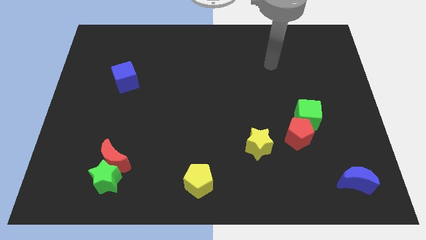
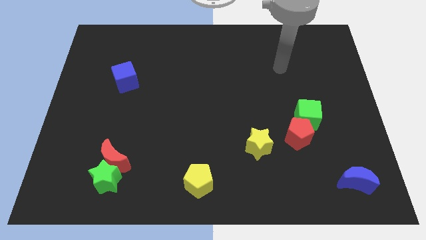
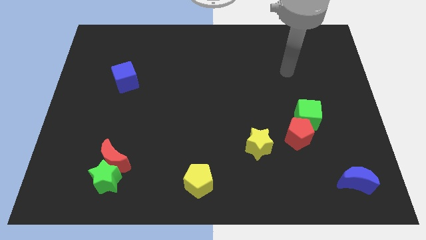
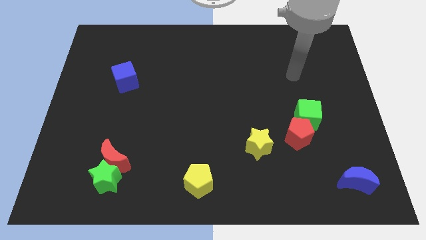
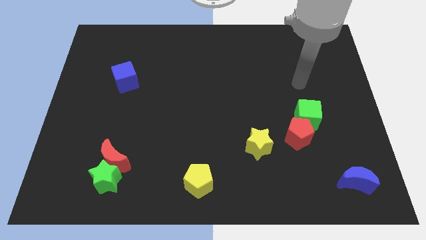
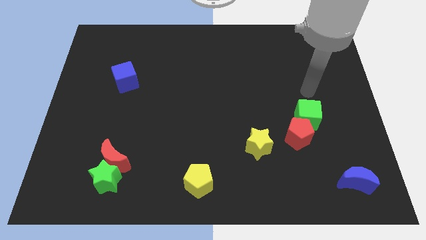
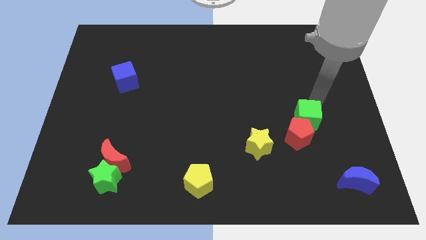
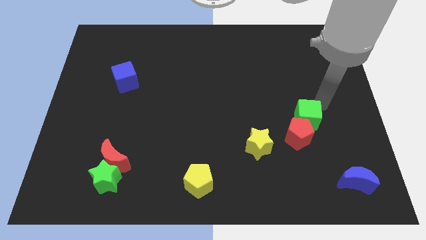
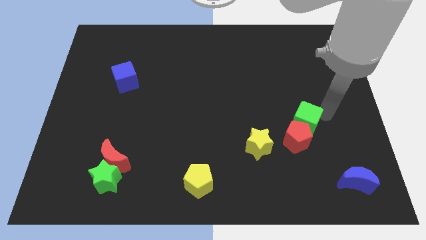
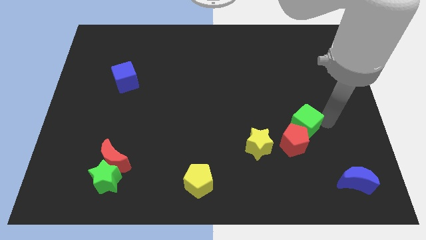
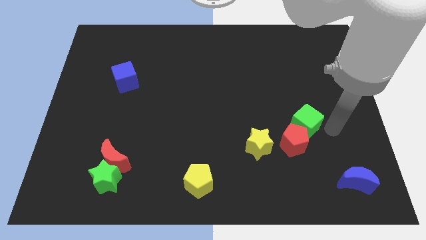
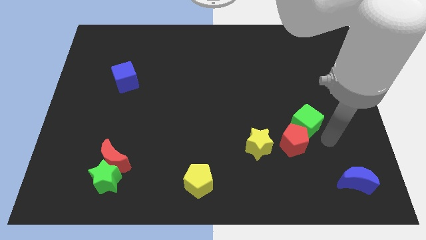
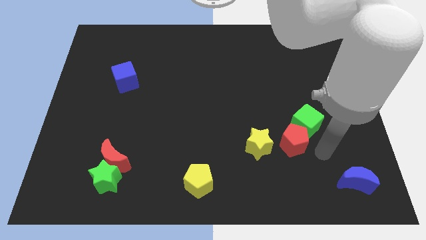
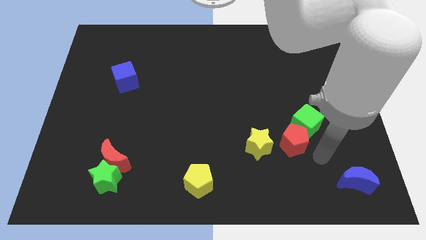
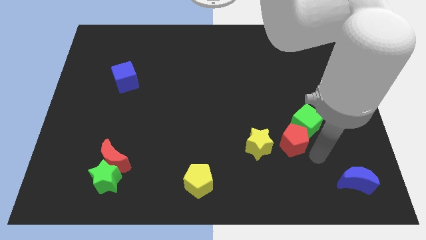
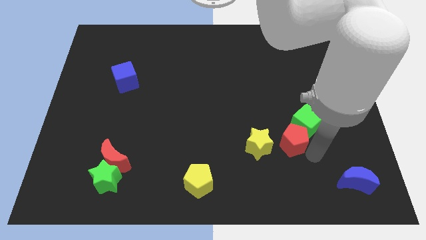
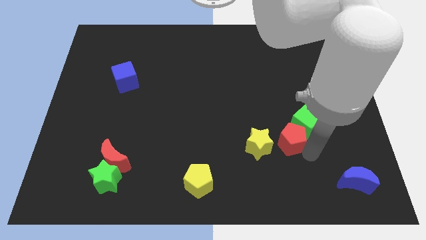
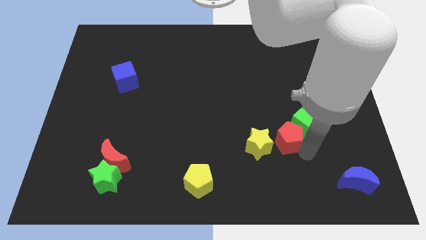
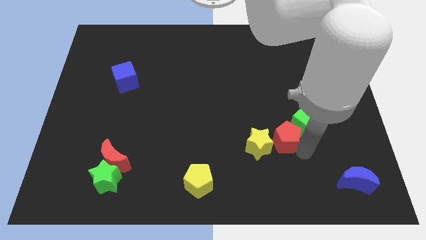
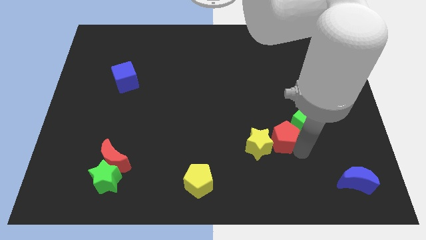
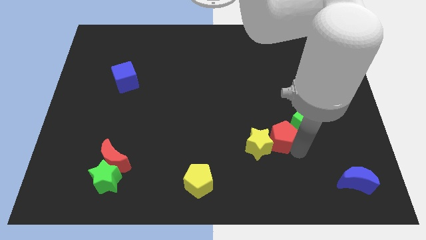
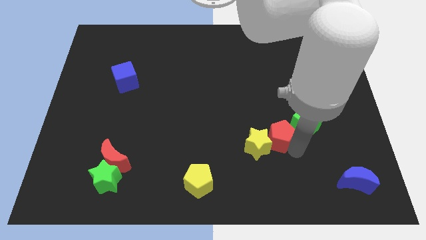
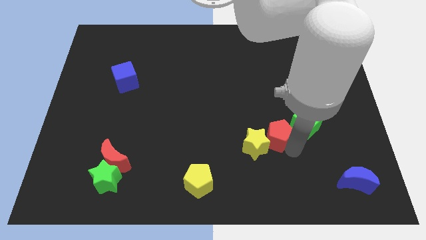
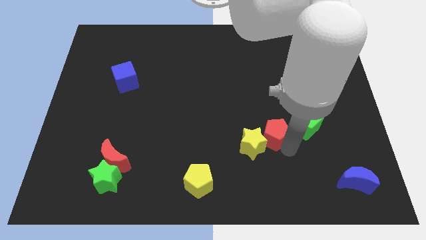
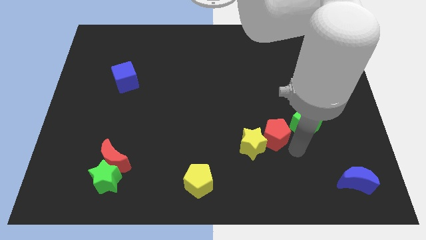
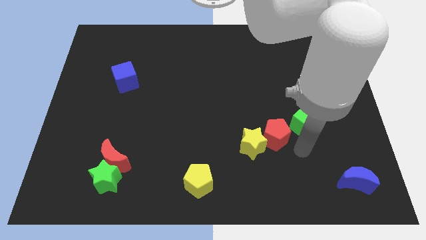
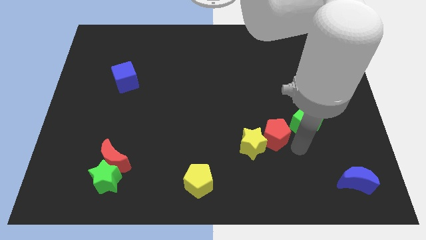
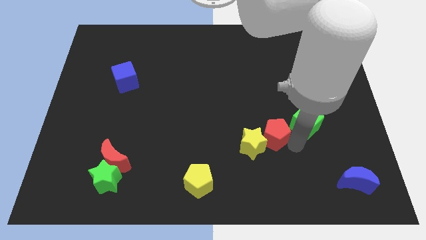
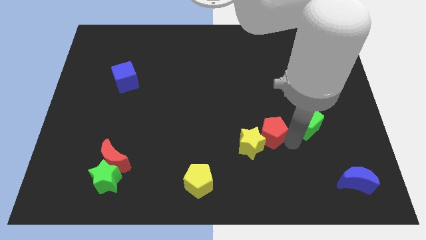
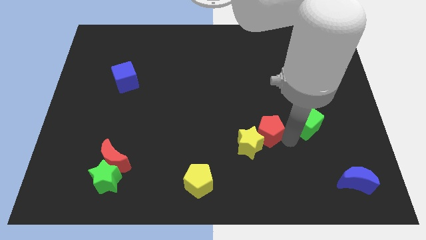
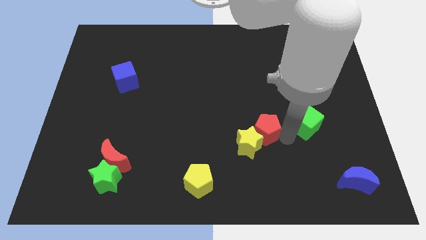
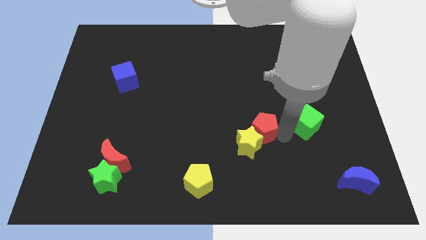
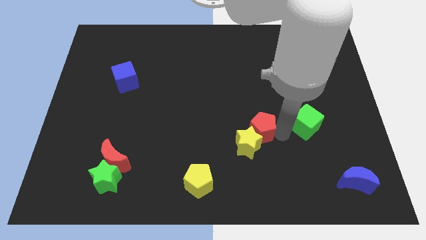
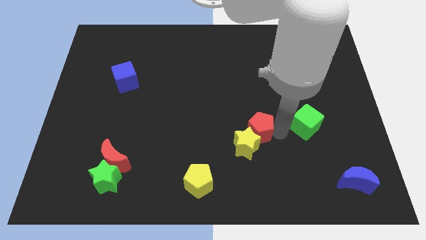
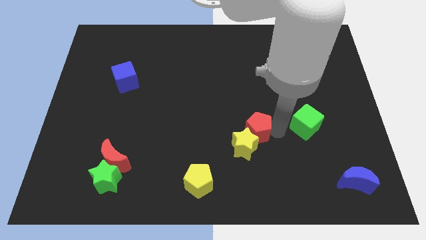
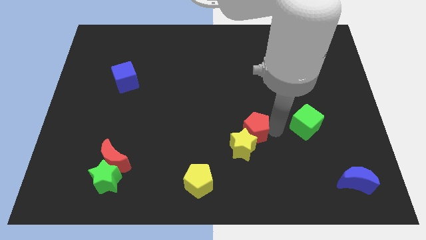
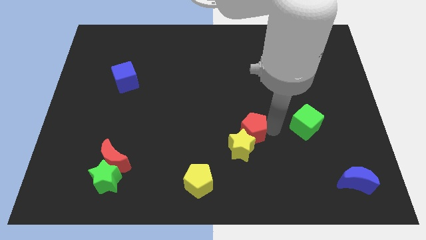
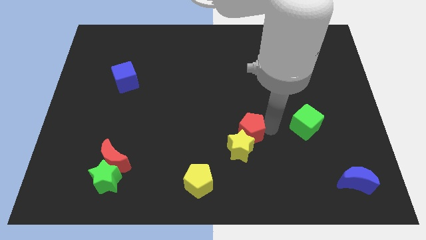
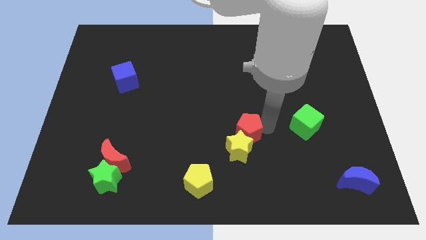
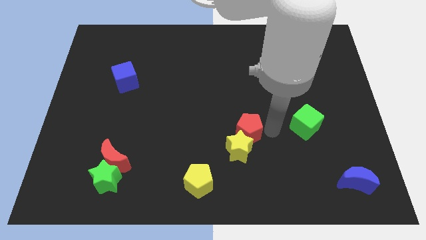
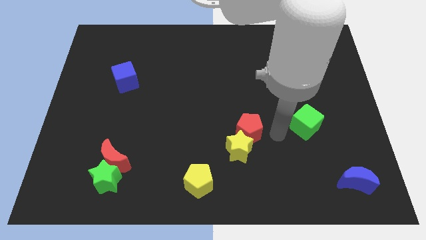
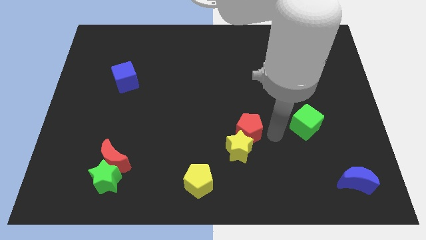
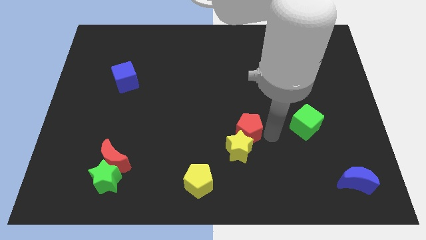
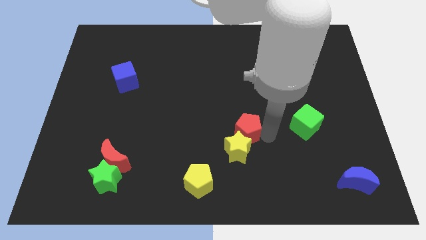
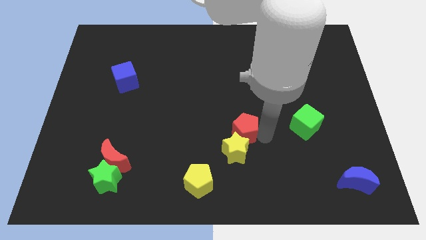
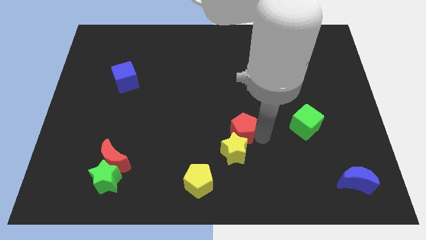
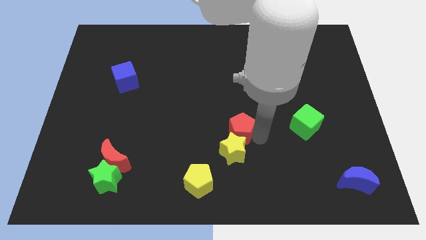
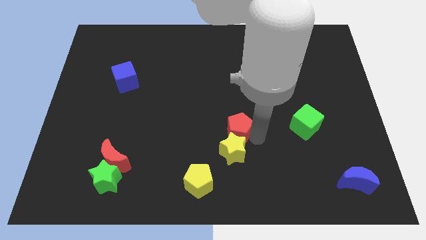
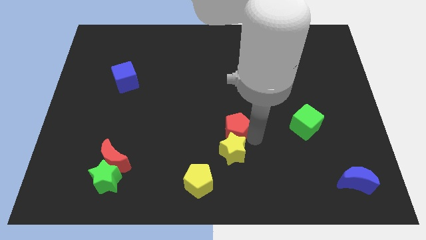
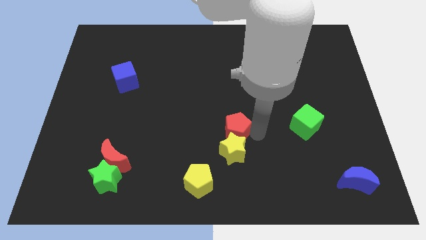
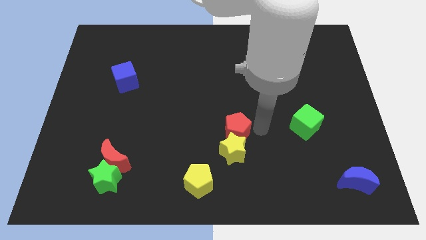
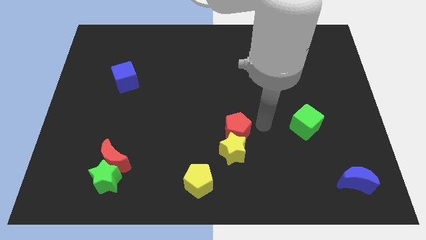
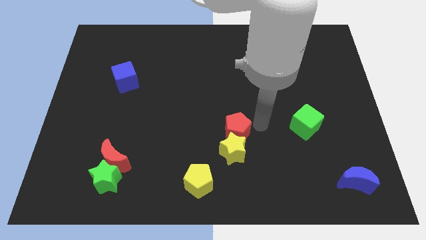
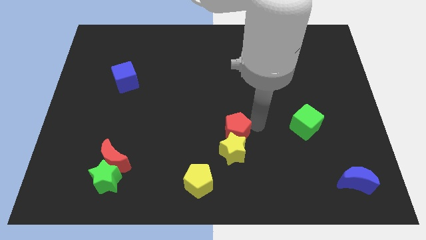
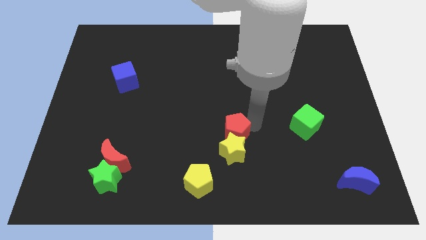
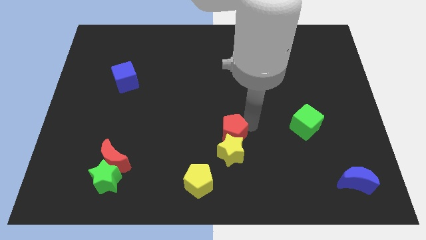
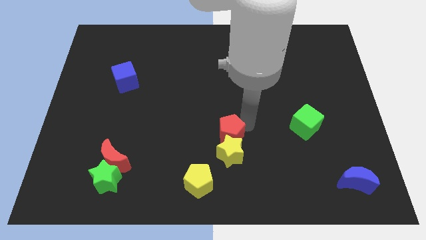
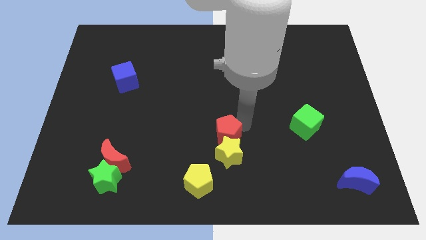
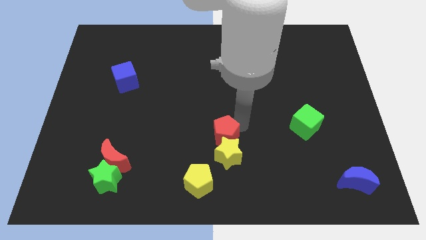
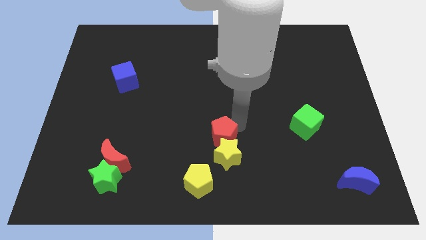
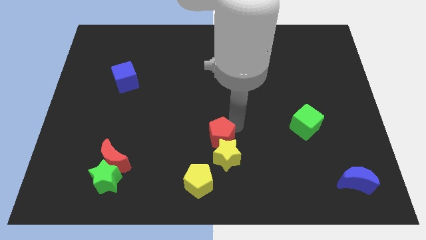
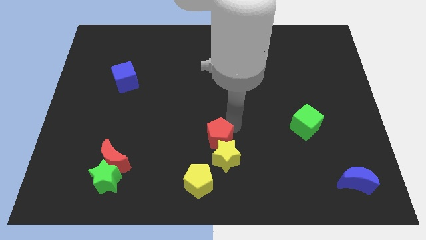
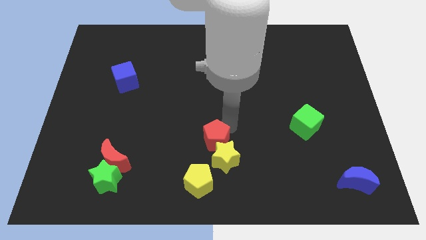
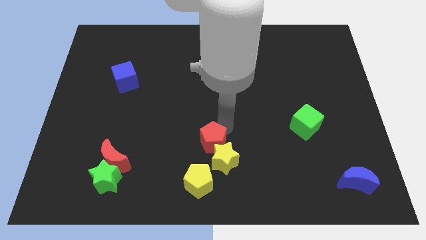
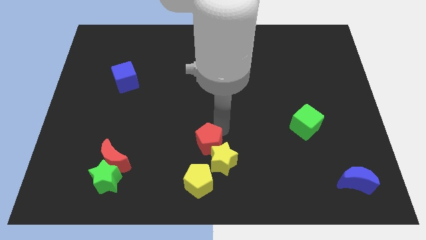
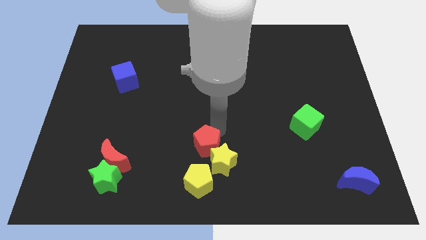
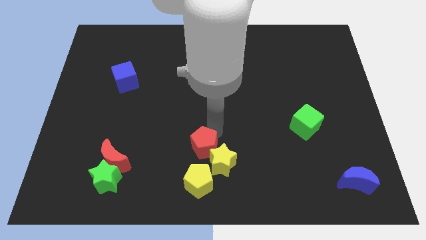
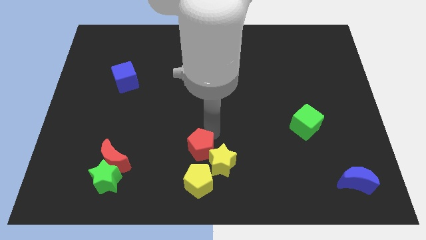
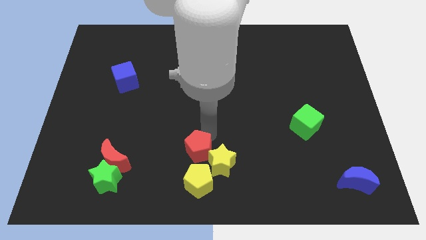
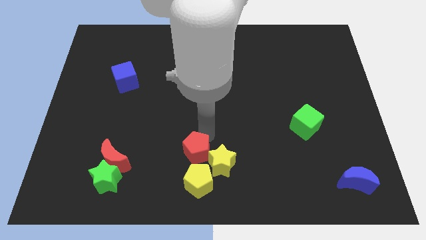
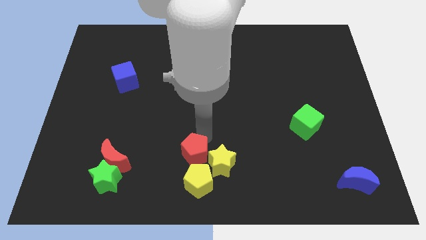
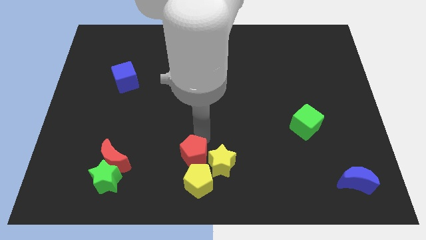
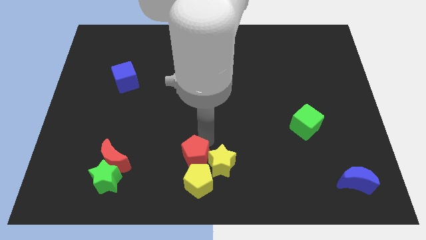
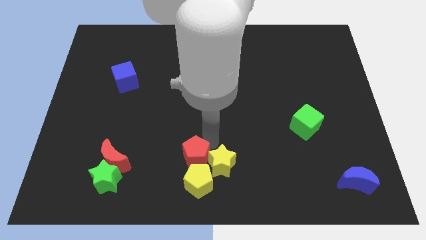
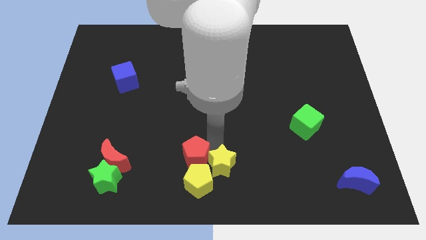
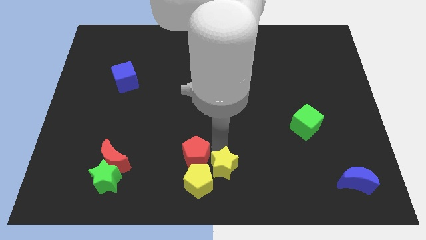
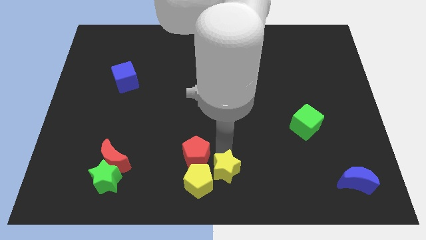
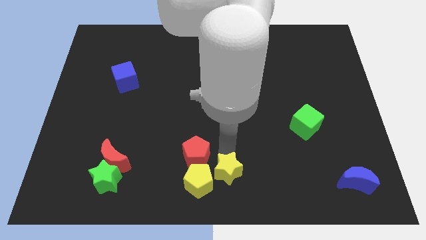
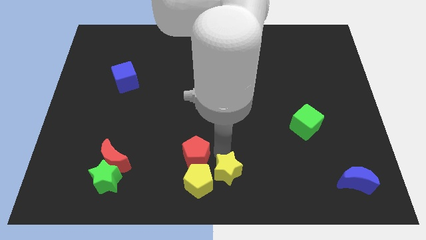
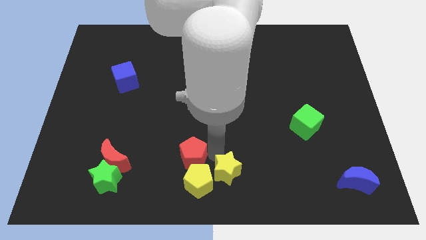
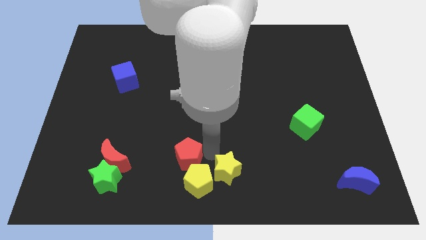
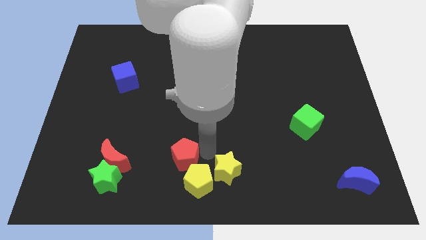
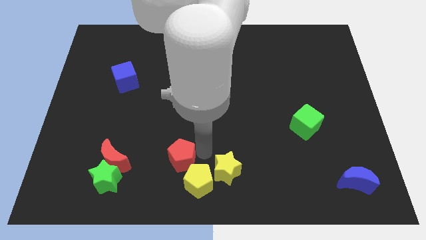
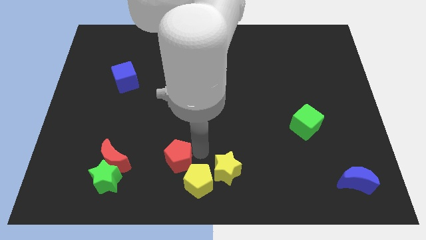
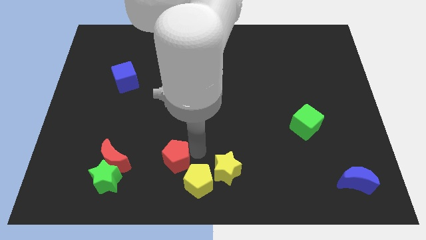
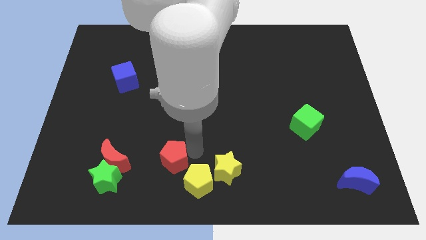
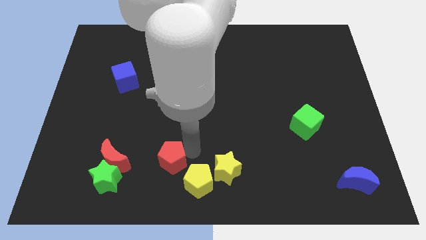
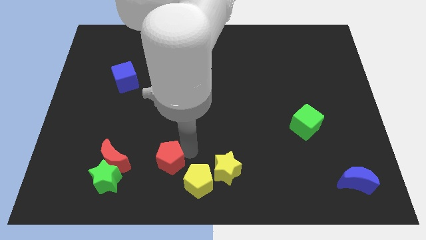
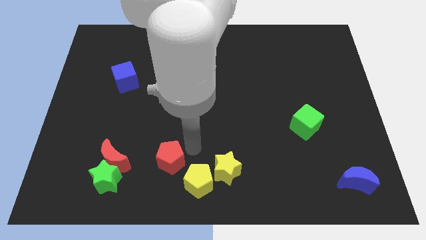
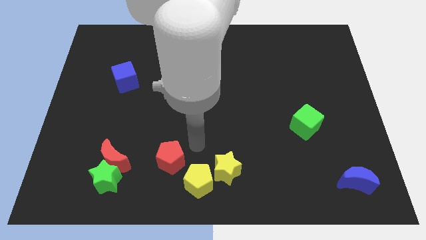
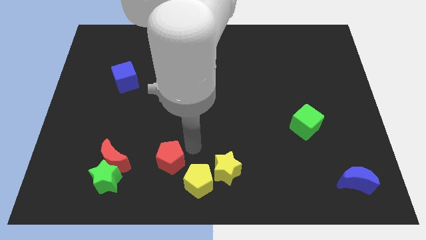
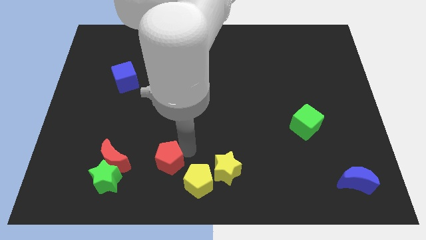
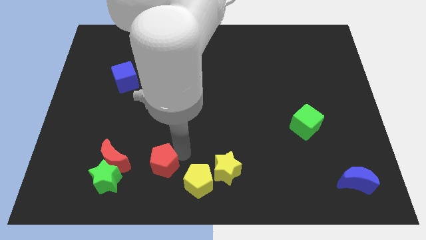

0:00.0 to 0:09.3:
move the red pentagon to the left side of the yellow pentagon
